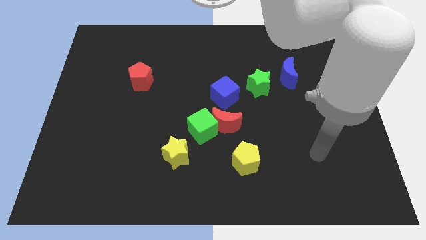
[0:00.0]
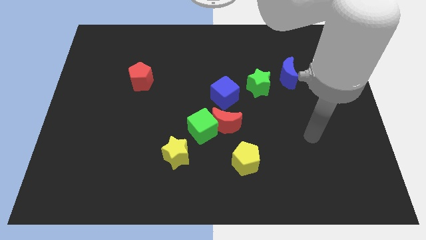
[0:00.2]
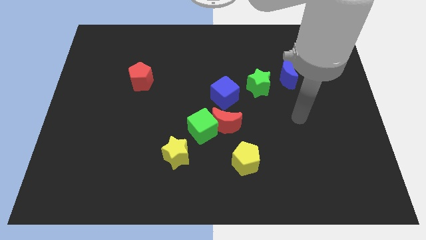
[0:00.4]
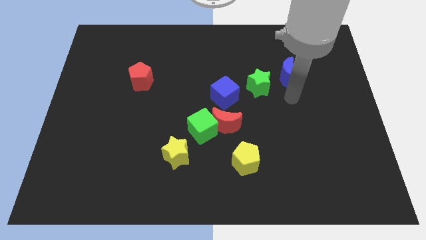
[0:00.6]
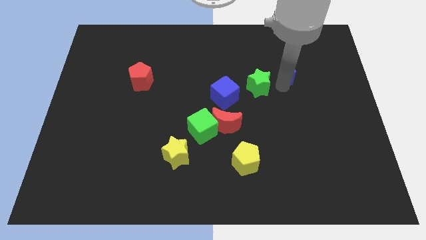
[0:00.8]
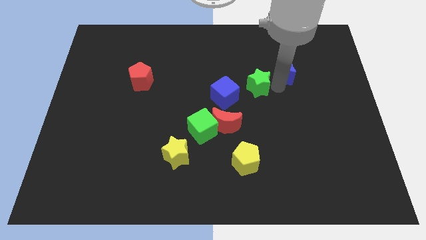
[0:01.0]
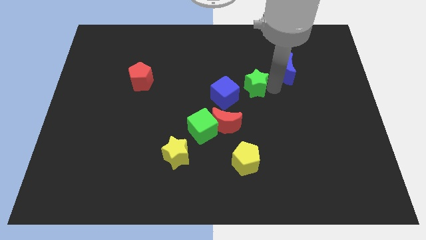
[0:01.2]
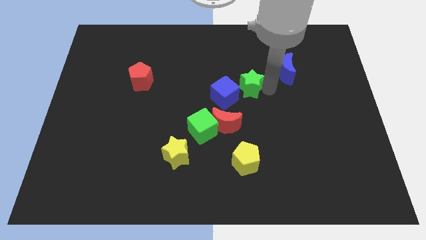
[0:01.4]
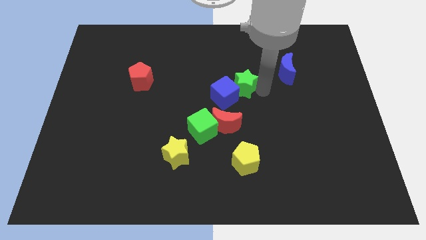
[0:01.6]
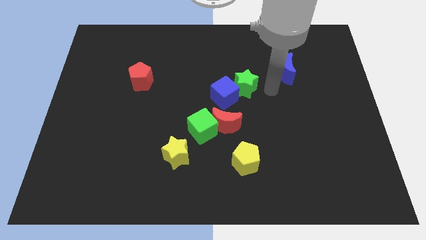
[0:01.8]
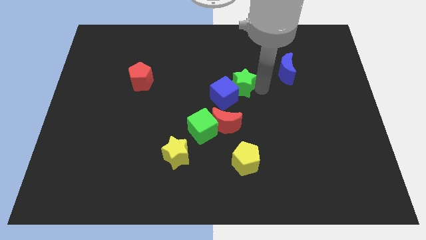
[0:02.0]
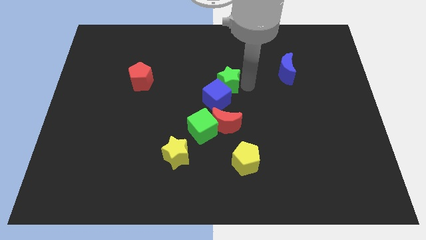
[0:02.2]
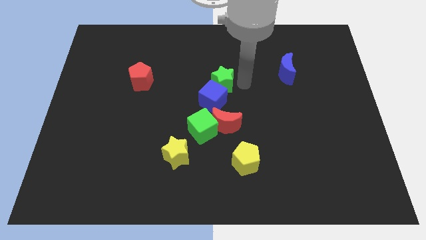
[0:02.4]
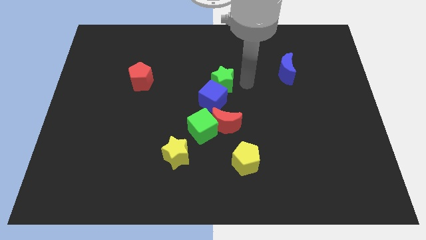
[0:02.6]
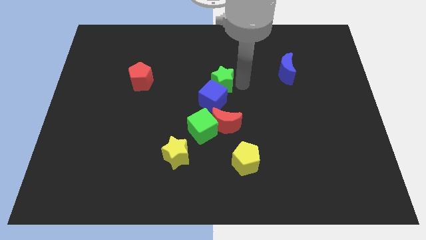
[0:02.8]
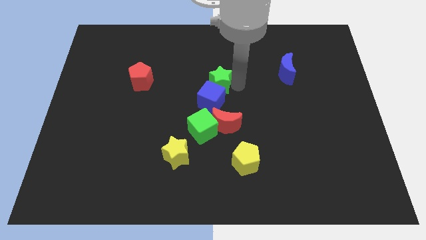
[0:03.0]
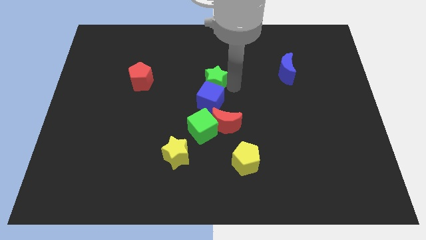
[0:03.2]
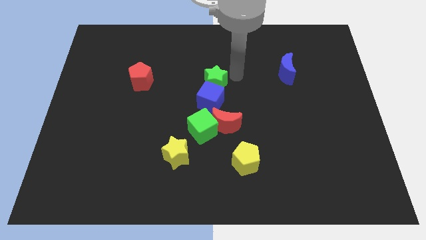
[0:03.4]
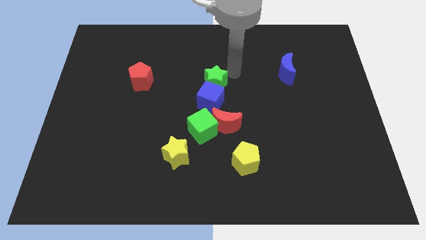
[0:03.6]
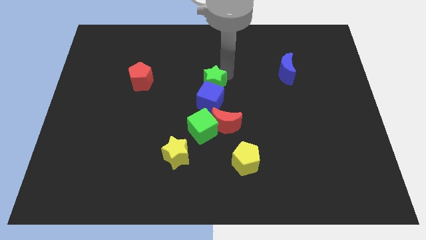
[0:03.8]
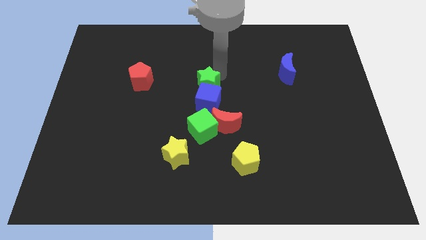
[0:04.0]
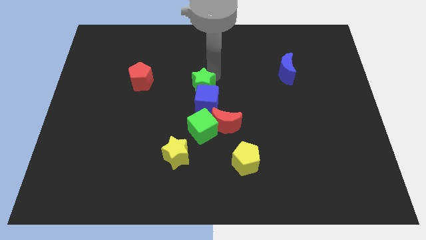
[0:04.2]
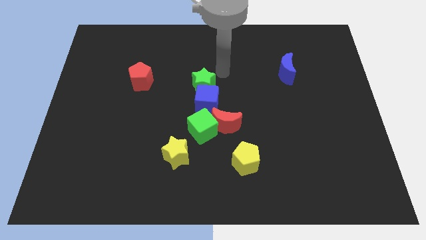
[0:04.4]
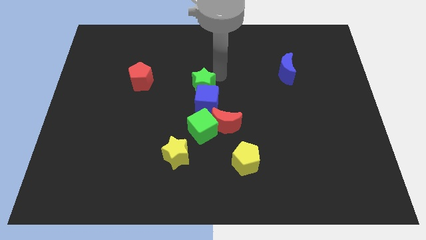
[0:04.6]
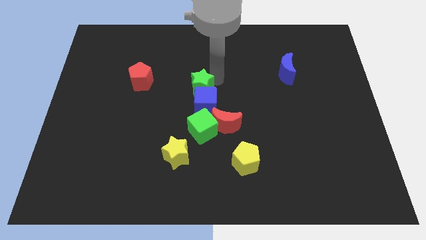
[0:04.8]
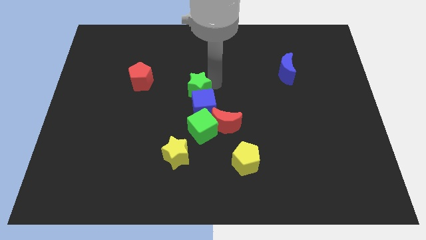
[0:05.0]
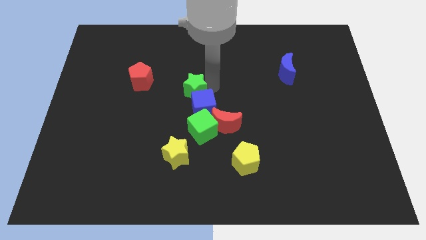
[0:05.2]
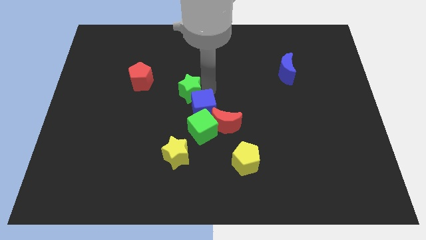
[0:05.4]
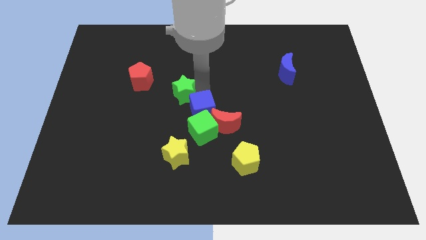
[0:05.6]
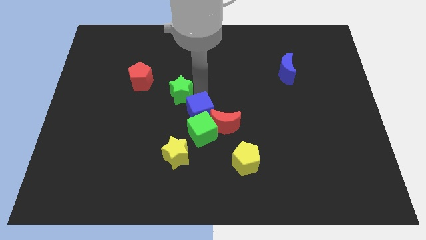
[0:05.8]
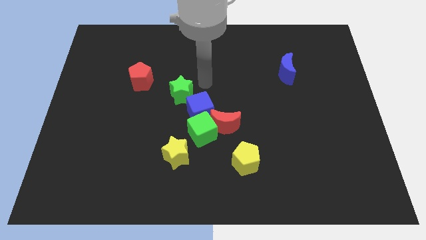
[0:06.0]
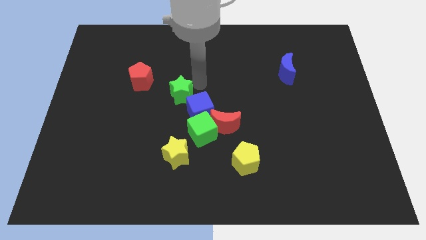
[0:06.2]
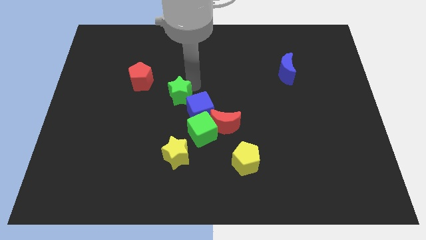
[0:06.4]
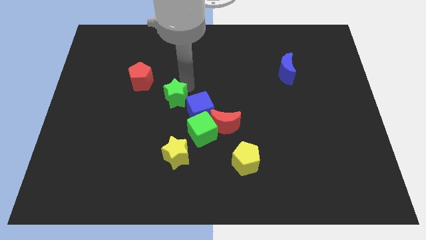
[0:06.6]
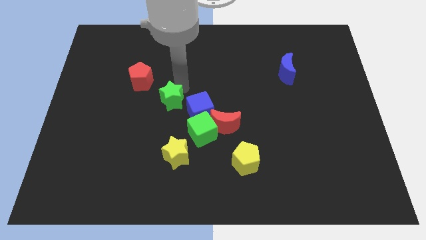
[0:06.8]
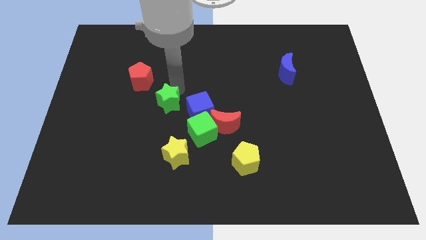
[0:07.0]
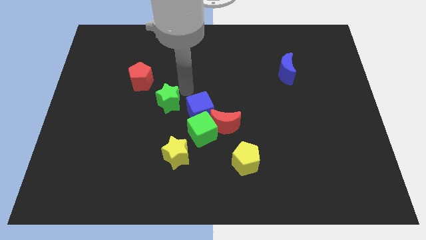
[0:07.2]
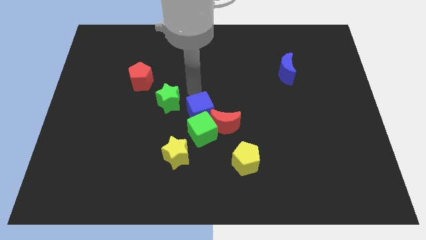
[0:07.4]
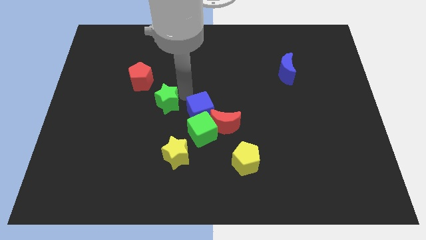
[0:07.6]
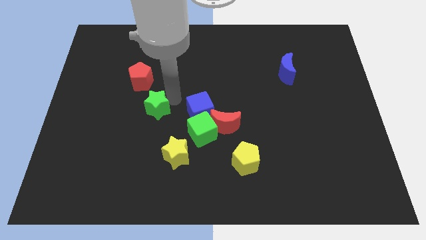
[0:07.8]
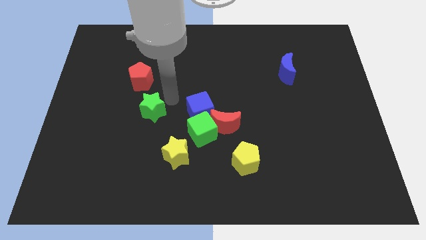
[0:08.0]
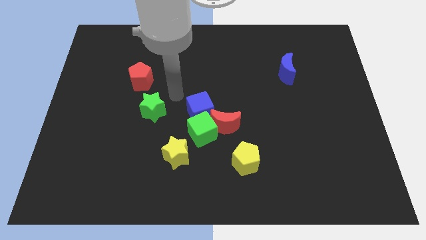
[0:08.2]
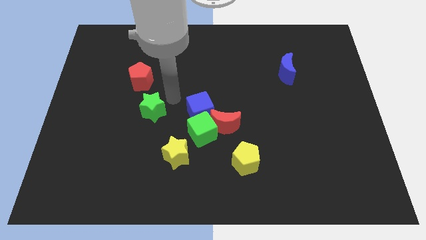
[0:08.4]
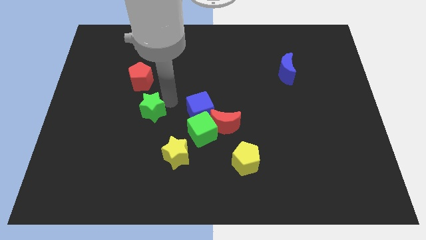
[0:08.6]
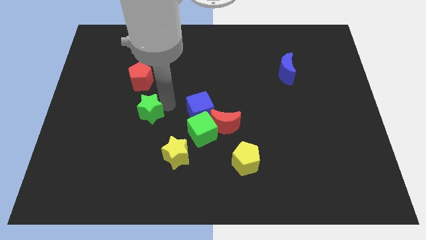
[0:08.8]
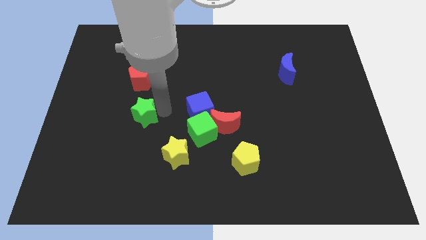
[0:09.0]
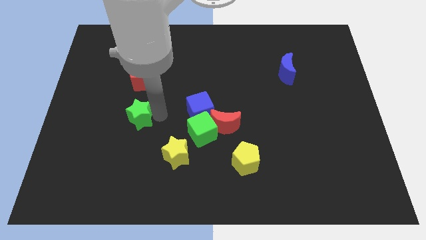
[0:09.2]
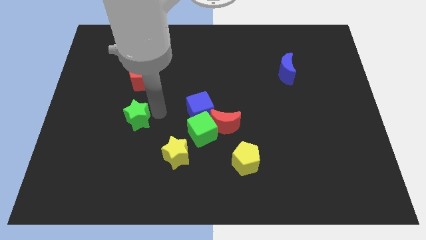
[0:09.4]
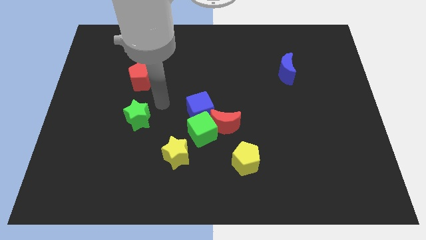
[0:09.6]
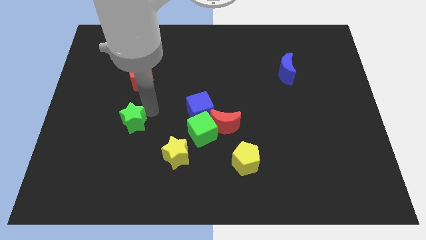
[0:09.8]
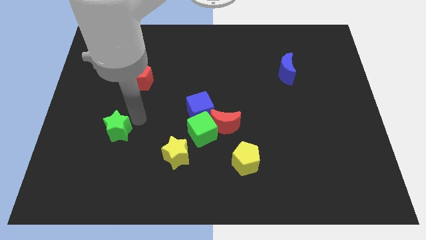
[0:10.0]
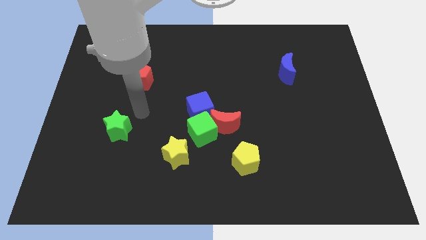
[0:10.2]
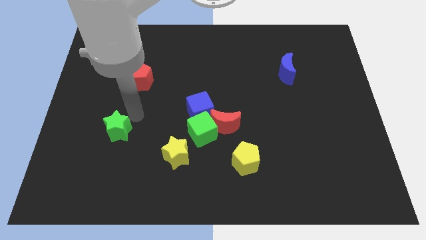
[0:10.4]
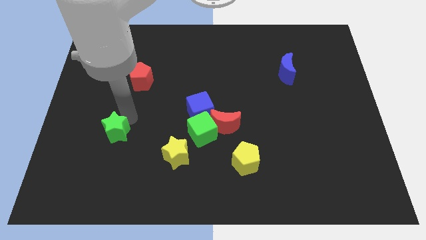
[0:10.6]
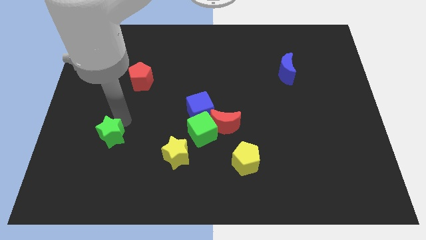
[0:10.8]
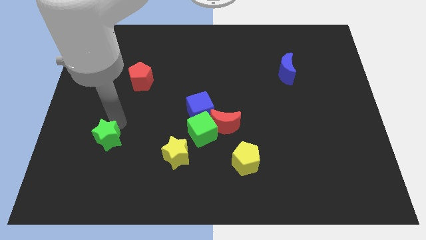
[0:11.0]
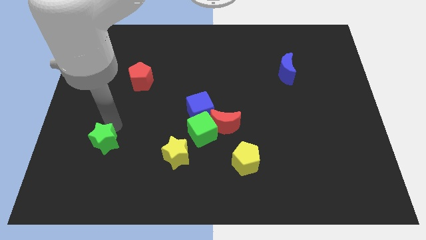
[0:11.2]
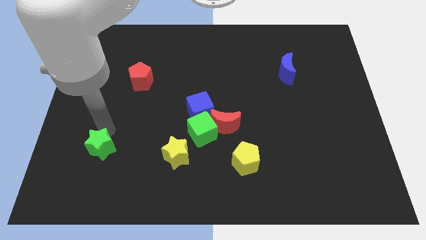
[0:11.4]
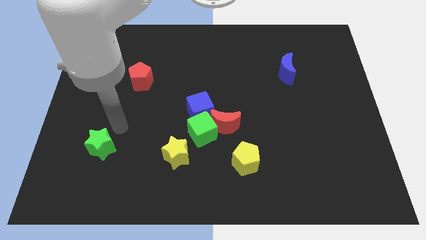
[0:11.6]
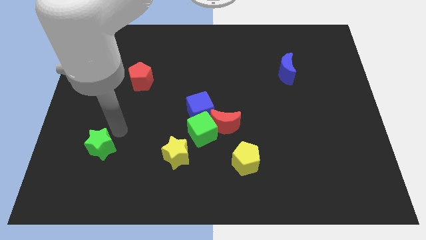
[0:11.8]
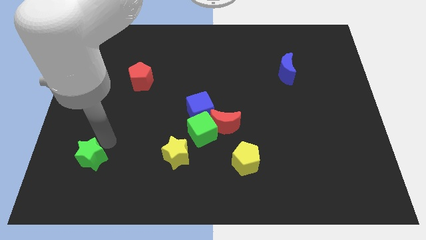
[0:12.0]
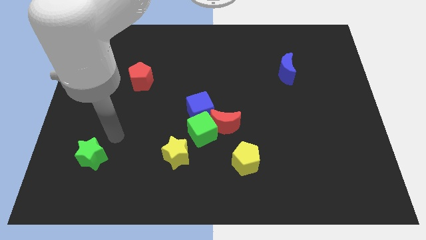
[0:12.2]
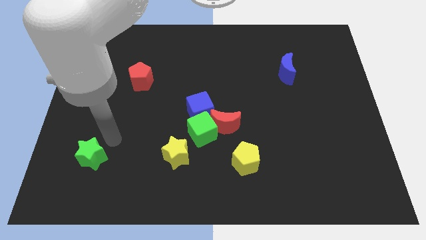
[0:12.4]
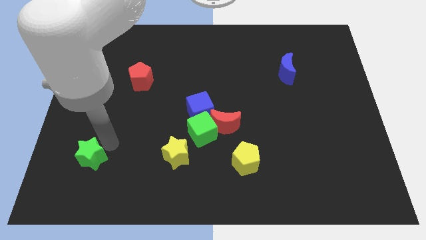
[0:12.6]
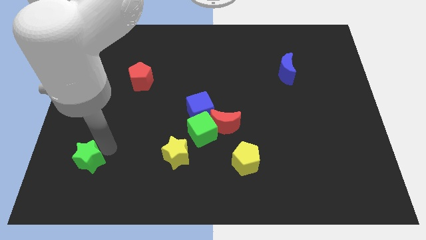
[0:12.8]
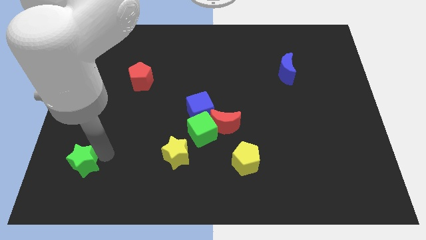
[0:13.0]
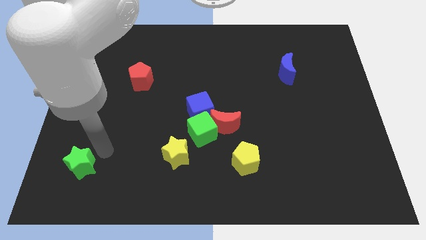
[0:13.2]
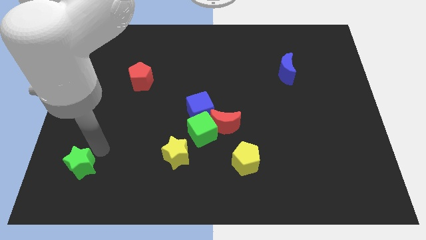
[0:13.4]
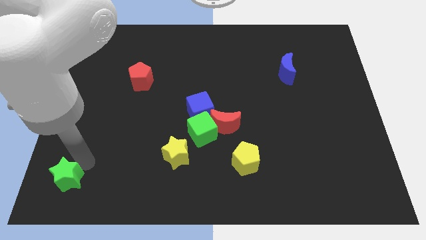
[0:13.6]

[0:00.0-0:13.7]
move the green star to the bottom left of the board
